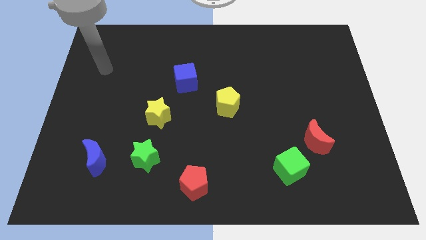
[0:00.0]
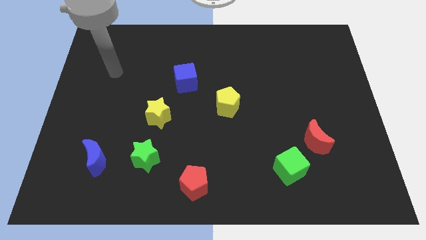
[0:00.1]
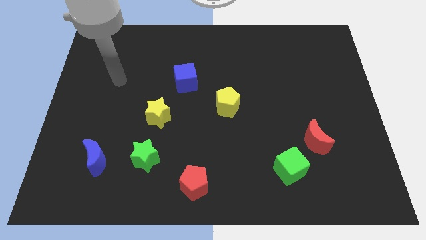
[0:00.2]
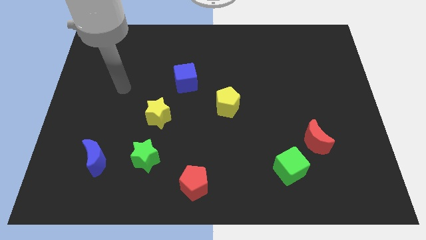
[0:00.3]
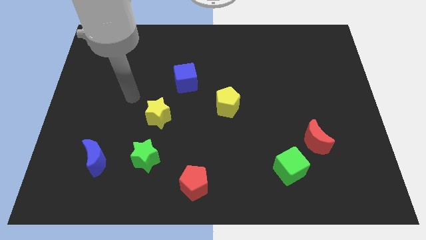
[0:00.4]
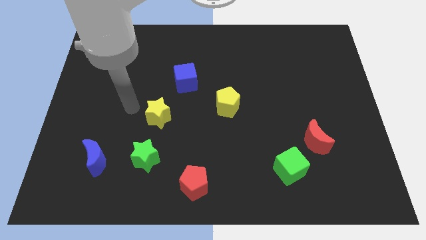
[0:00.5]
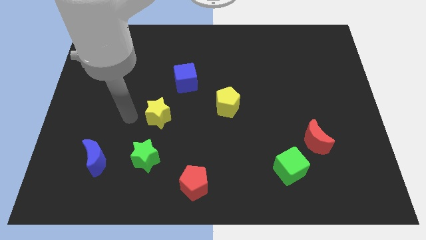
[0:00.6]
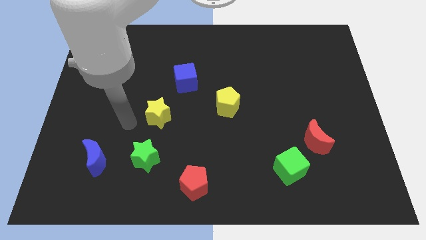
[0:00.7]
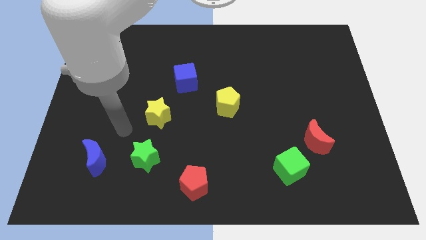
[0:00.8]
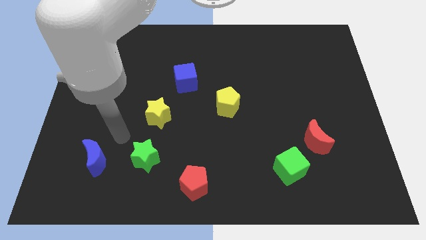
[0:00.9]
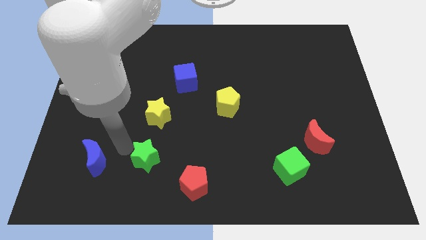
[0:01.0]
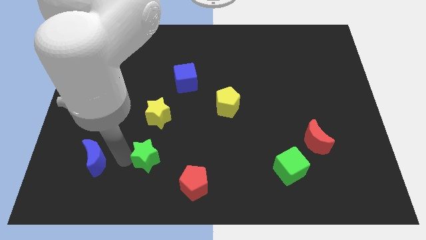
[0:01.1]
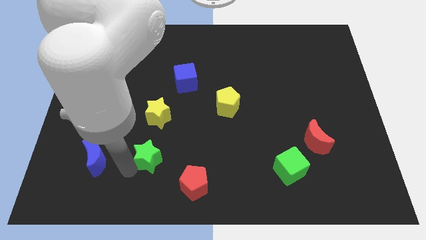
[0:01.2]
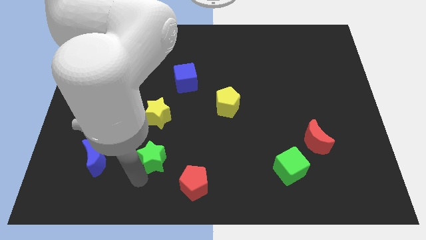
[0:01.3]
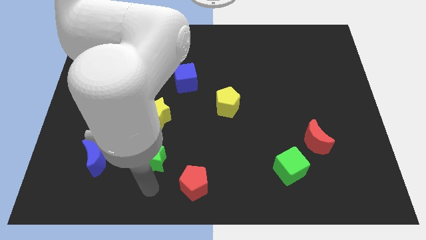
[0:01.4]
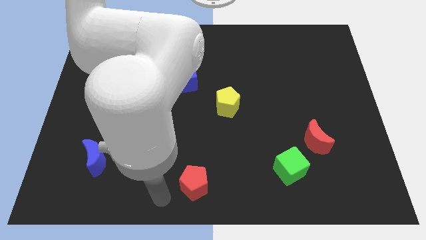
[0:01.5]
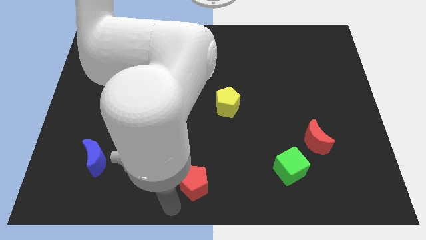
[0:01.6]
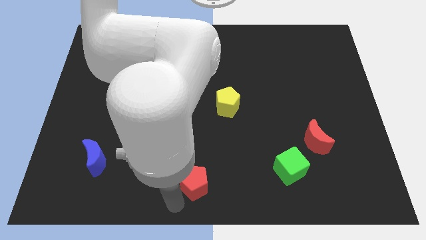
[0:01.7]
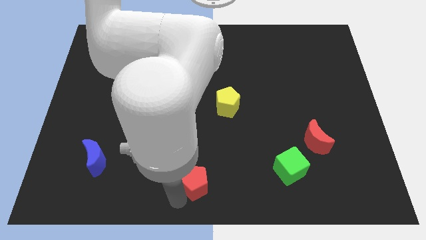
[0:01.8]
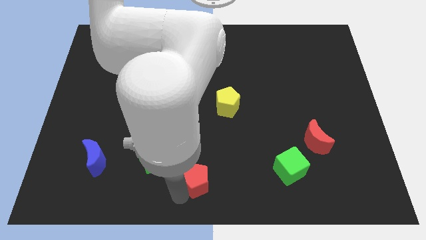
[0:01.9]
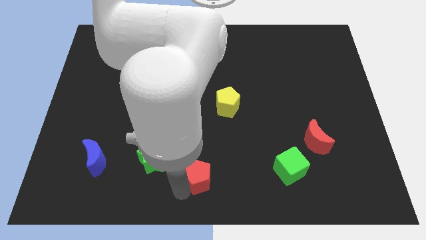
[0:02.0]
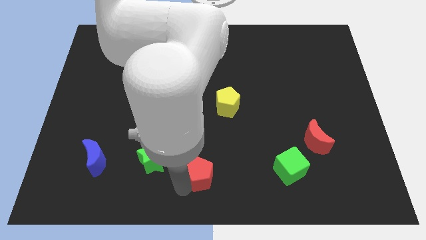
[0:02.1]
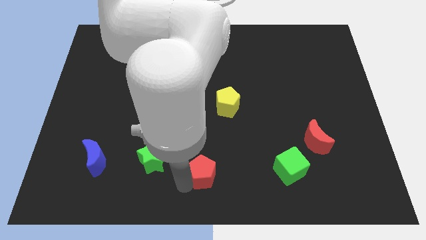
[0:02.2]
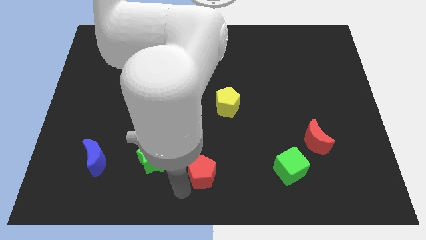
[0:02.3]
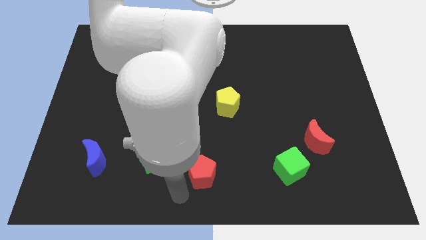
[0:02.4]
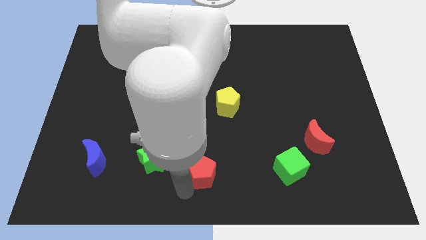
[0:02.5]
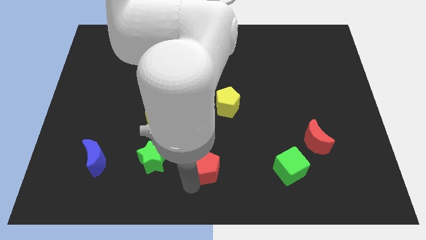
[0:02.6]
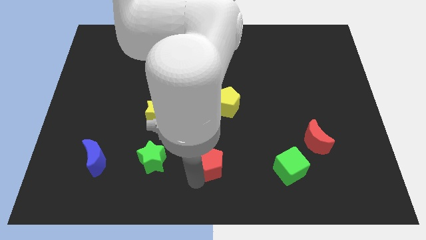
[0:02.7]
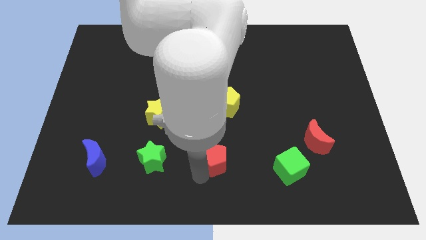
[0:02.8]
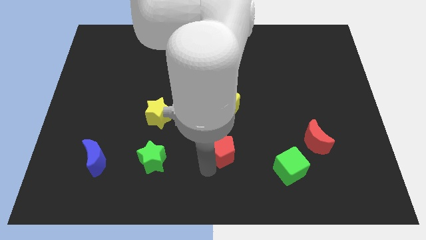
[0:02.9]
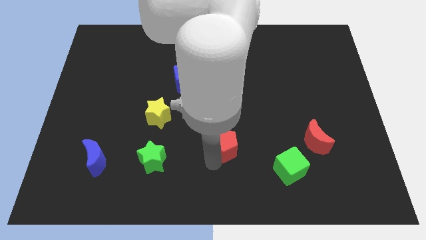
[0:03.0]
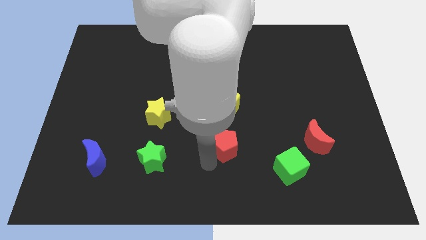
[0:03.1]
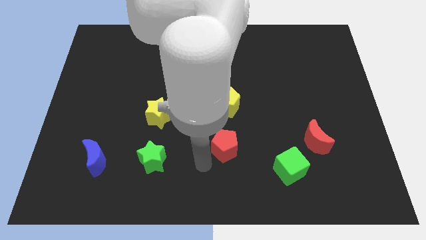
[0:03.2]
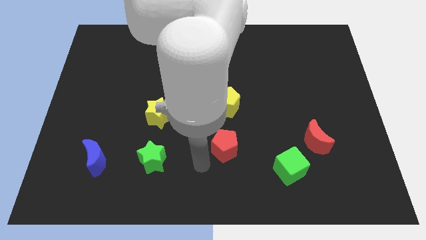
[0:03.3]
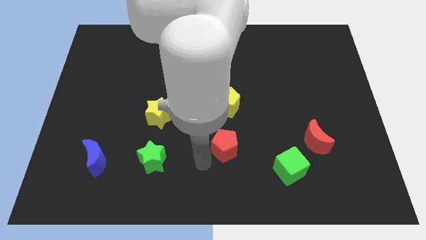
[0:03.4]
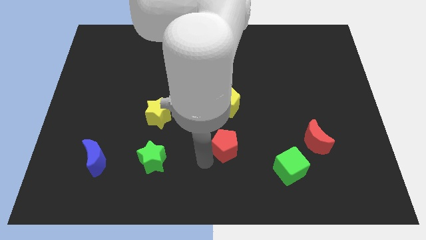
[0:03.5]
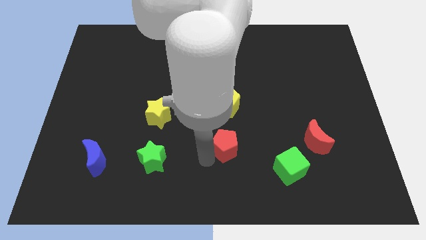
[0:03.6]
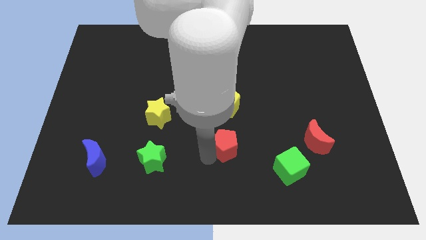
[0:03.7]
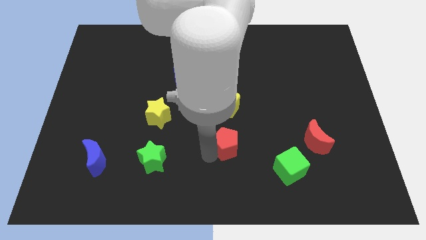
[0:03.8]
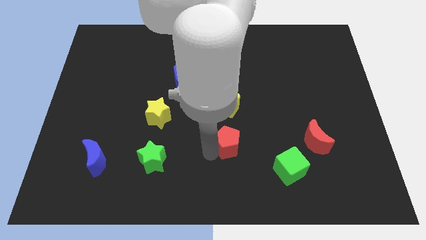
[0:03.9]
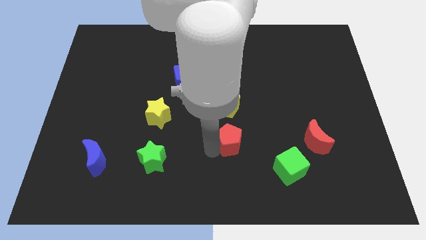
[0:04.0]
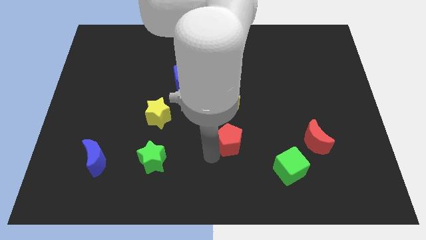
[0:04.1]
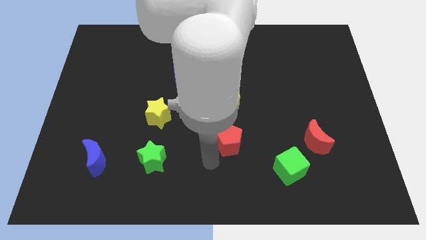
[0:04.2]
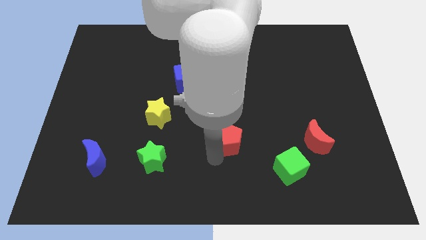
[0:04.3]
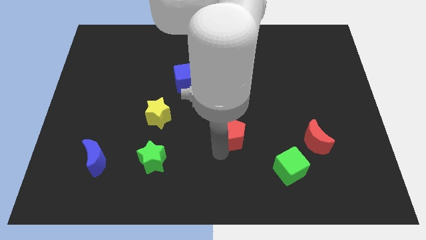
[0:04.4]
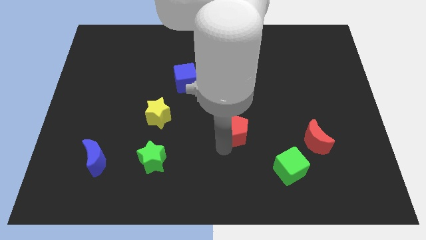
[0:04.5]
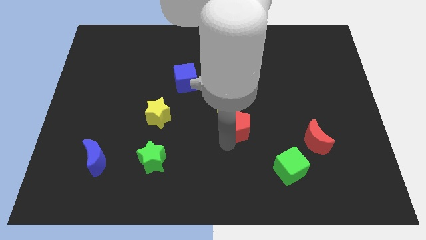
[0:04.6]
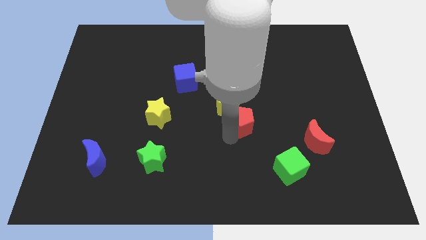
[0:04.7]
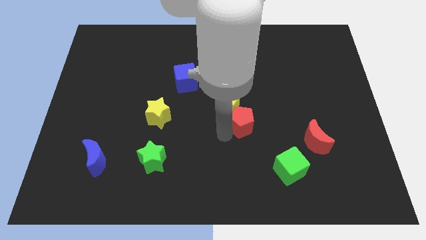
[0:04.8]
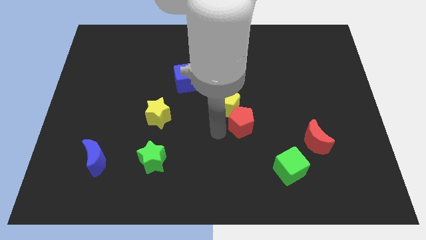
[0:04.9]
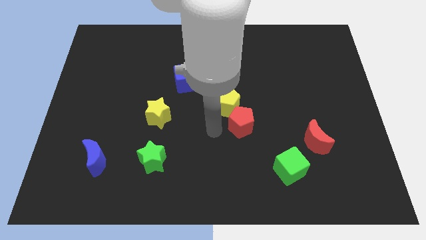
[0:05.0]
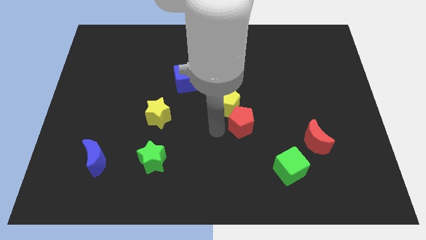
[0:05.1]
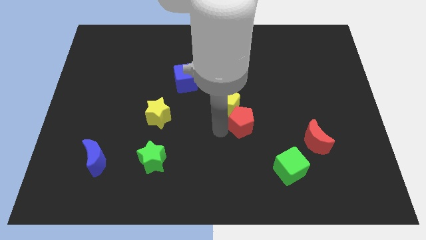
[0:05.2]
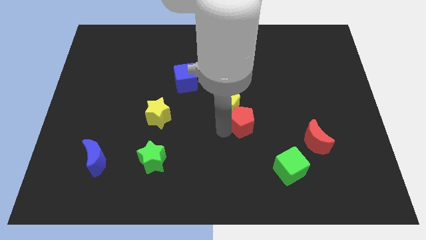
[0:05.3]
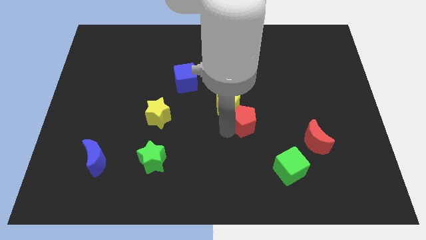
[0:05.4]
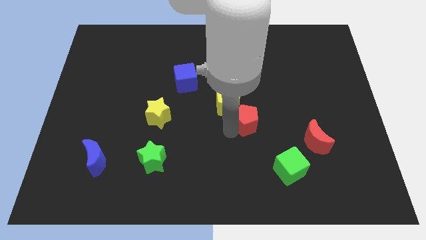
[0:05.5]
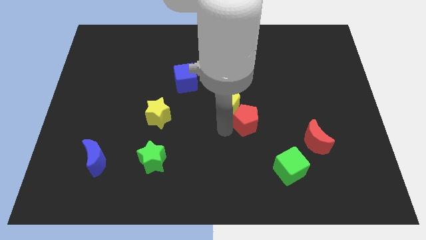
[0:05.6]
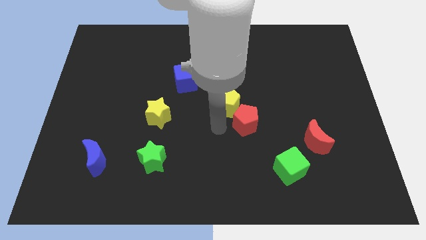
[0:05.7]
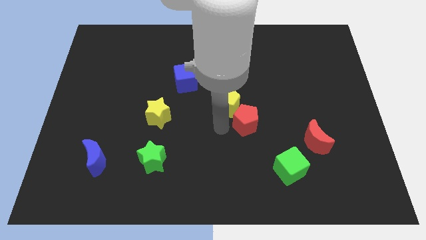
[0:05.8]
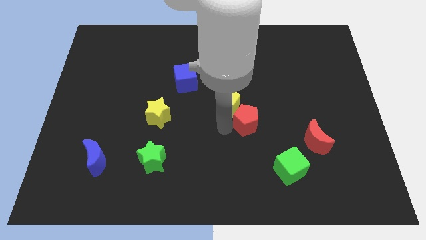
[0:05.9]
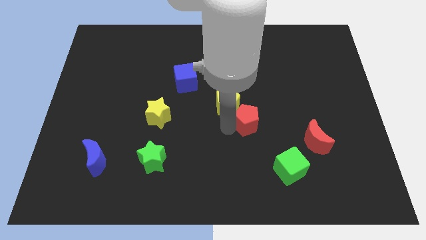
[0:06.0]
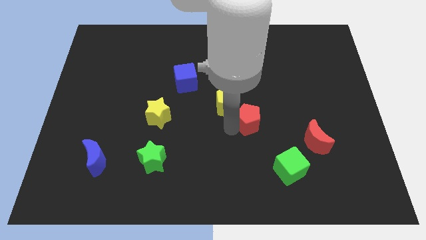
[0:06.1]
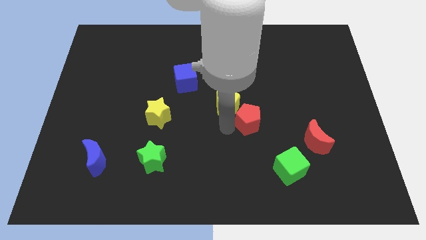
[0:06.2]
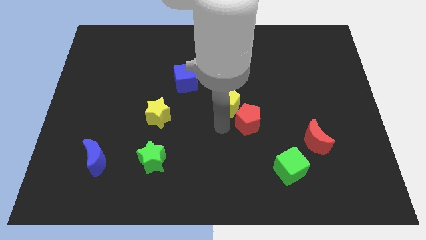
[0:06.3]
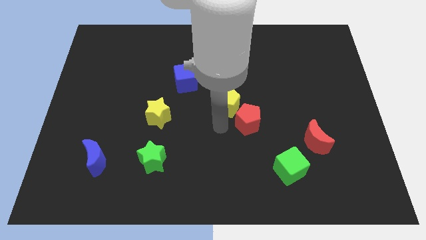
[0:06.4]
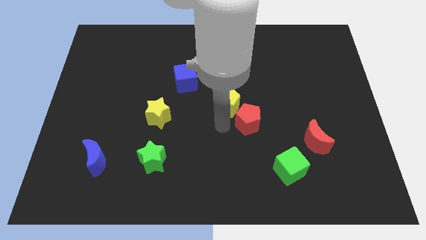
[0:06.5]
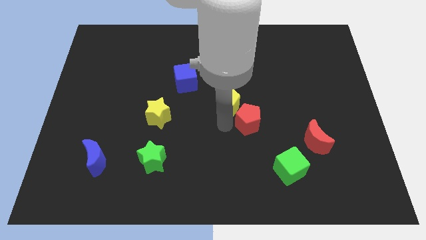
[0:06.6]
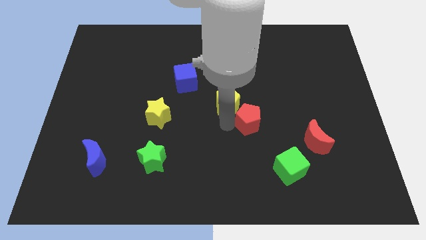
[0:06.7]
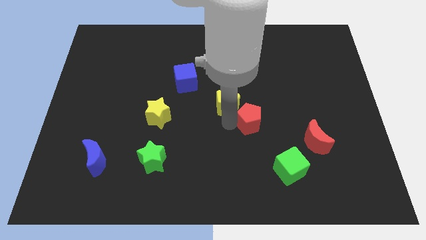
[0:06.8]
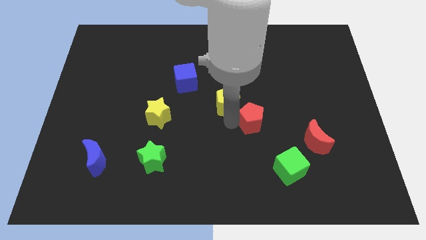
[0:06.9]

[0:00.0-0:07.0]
move the red pentagon upwards and to the right

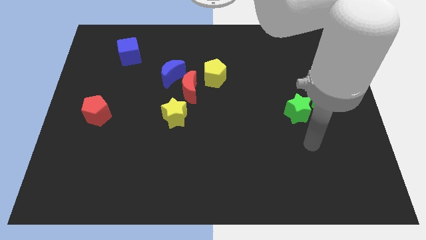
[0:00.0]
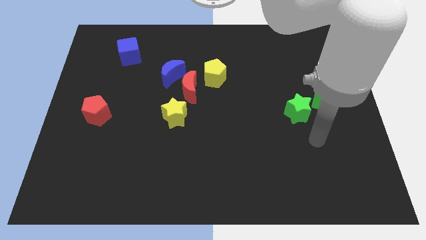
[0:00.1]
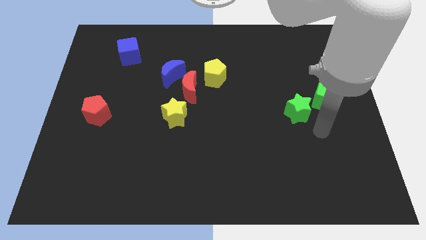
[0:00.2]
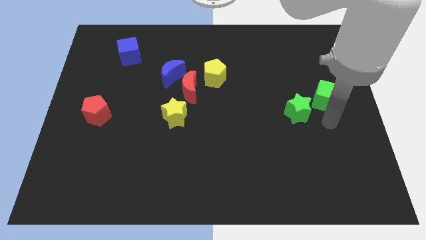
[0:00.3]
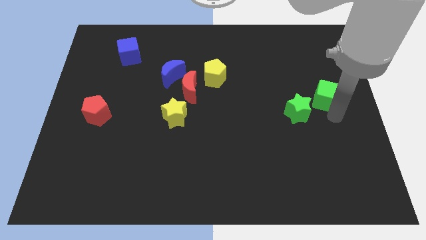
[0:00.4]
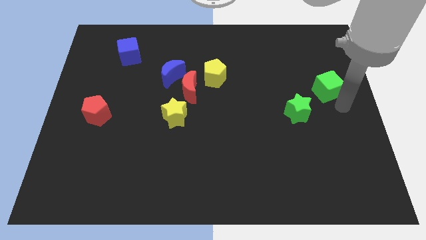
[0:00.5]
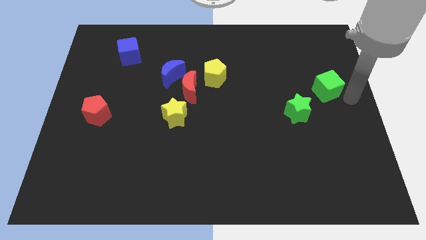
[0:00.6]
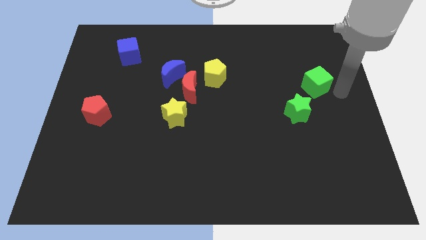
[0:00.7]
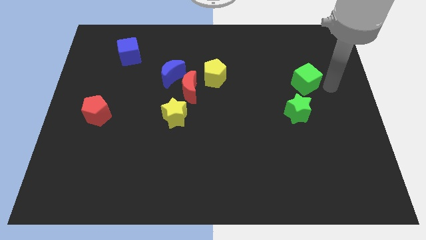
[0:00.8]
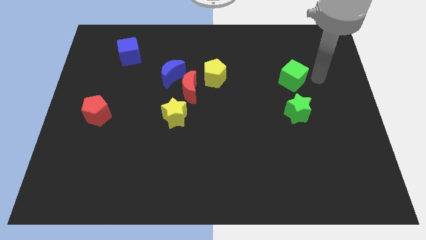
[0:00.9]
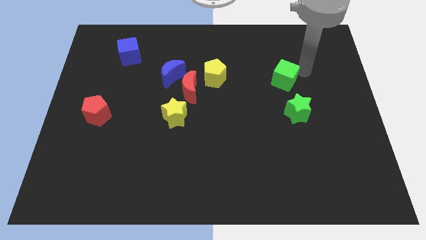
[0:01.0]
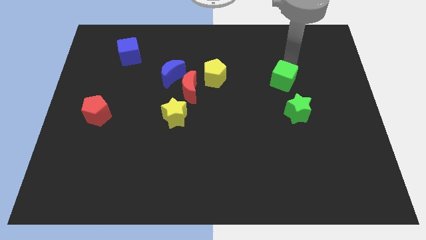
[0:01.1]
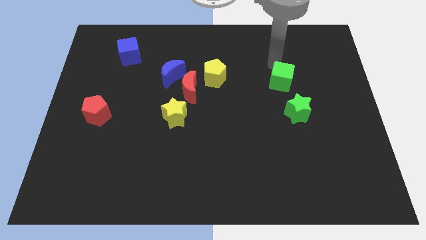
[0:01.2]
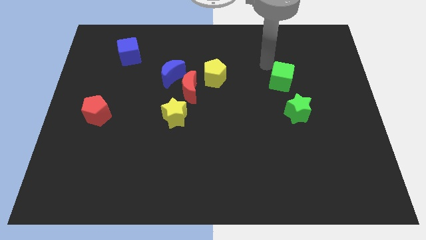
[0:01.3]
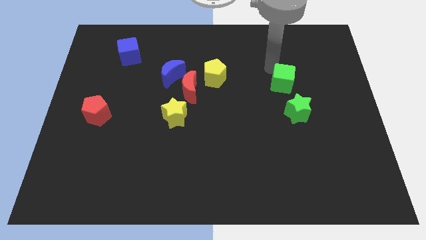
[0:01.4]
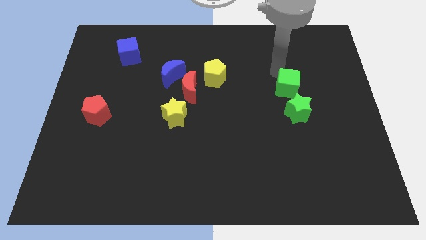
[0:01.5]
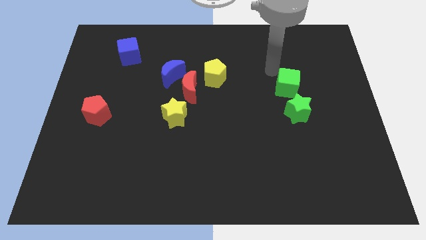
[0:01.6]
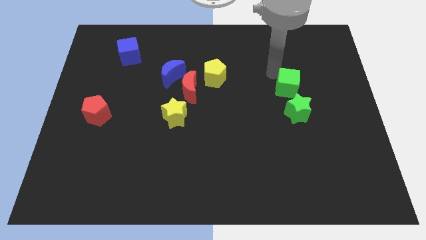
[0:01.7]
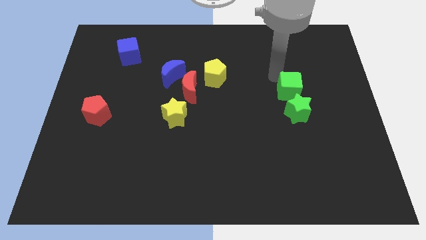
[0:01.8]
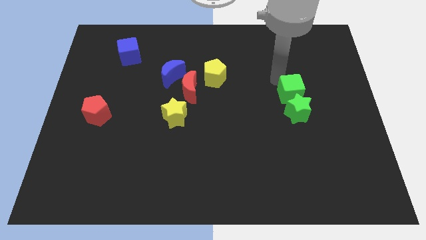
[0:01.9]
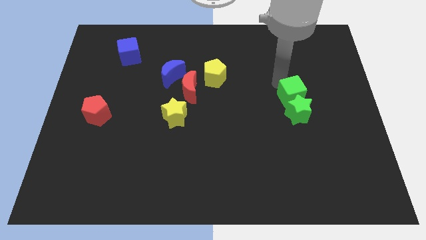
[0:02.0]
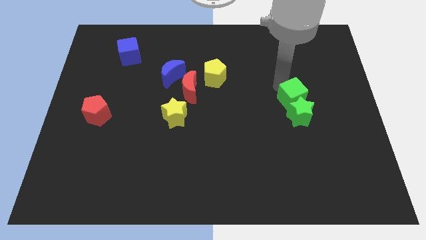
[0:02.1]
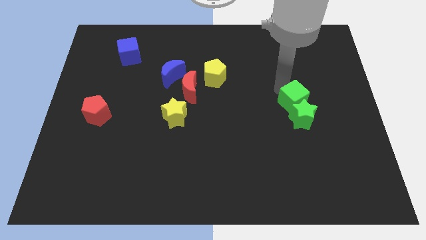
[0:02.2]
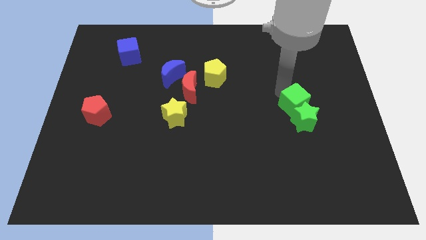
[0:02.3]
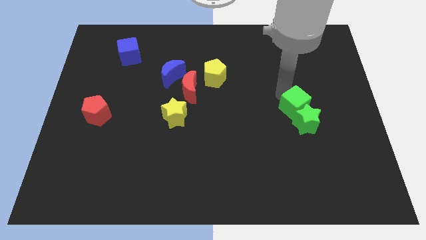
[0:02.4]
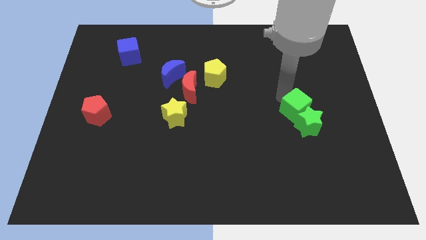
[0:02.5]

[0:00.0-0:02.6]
slightly slide the green cube diagonally downwards and to the left
